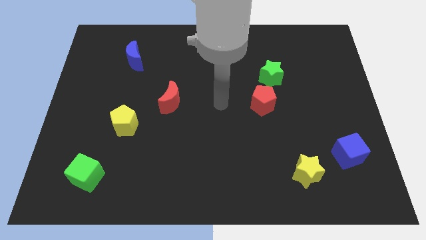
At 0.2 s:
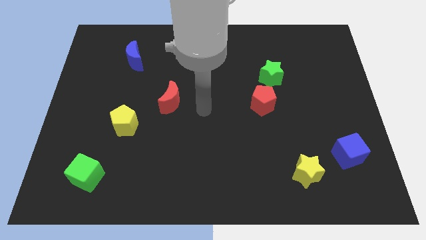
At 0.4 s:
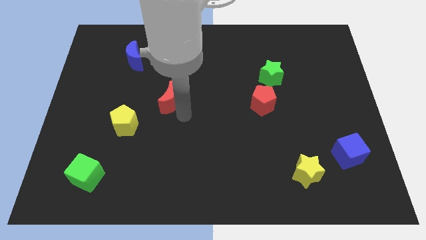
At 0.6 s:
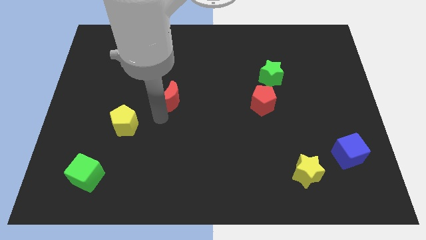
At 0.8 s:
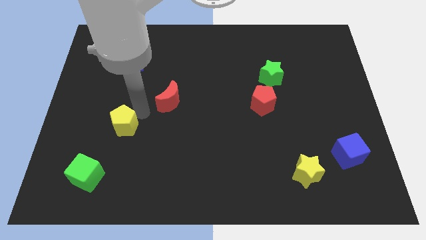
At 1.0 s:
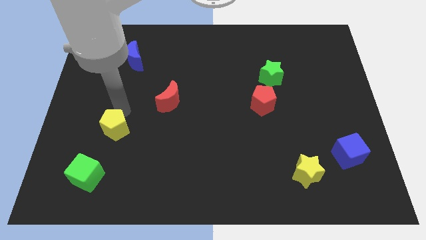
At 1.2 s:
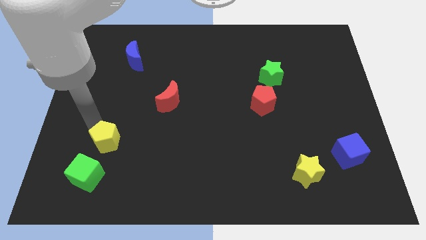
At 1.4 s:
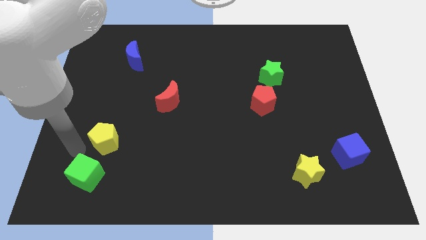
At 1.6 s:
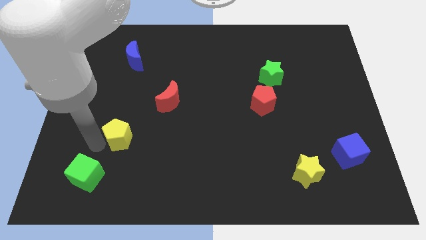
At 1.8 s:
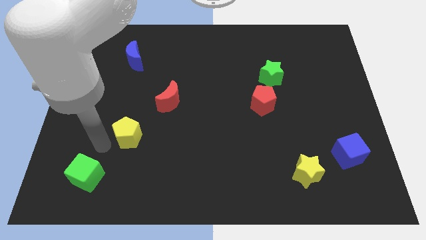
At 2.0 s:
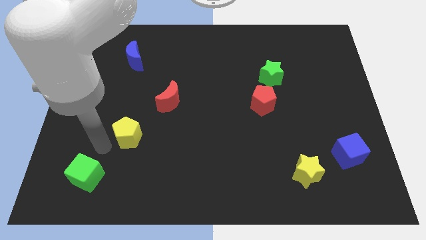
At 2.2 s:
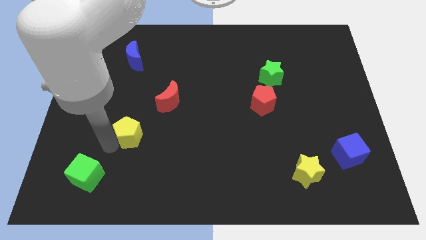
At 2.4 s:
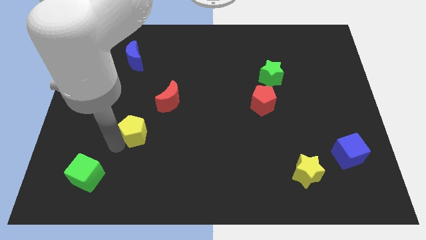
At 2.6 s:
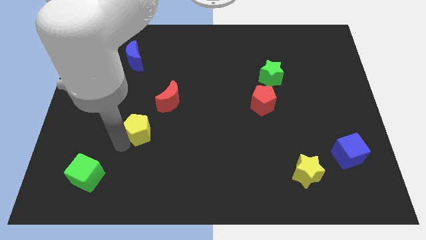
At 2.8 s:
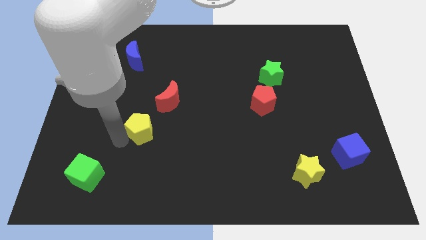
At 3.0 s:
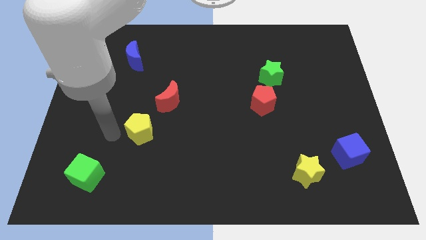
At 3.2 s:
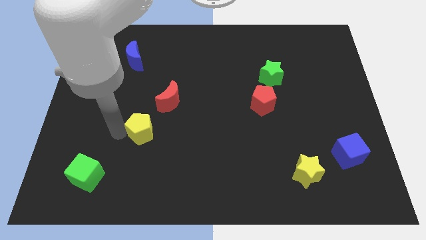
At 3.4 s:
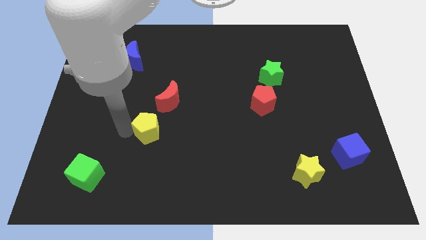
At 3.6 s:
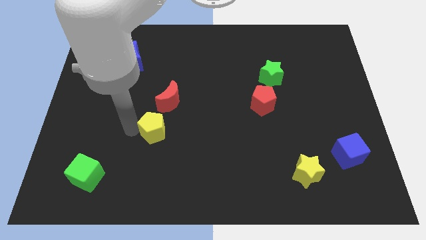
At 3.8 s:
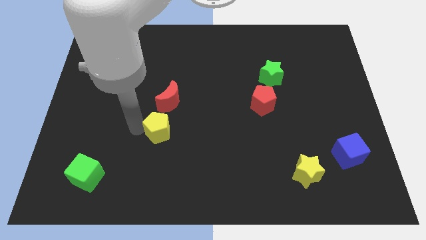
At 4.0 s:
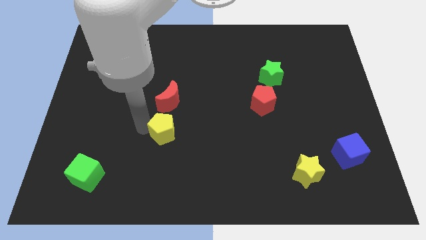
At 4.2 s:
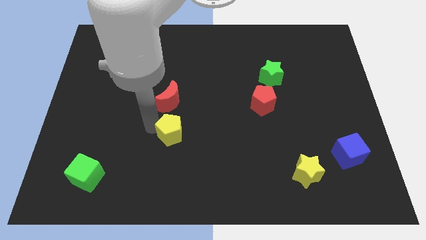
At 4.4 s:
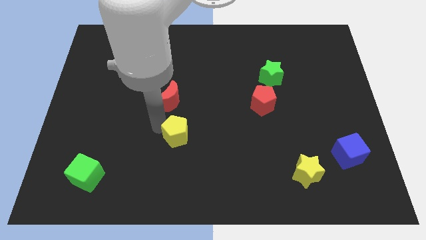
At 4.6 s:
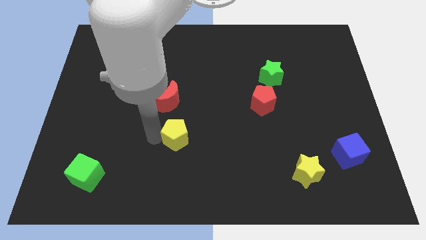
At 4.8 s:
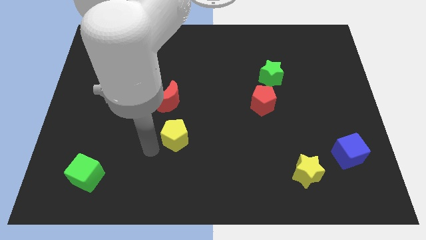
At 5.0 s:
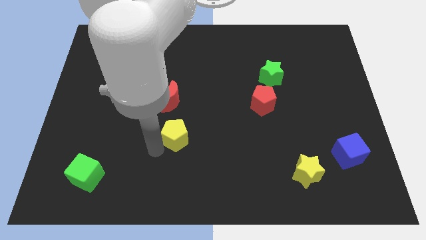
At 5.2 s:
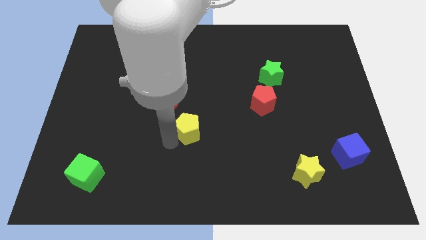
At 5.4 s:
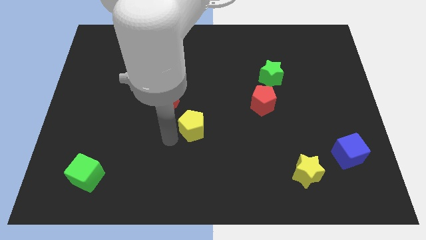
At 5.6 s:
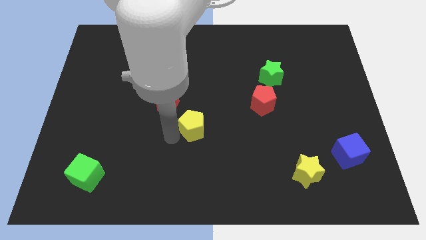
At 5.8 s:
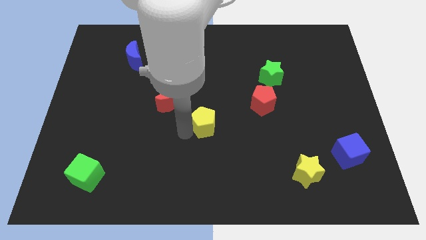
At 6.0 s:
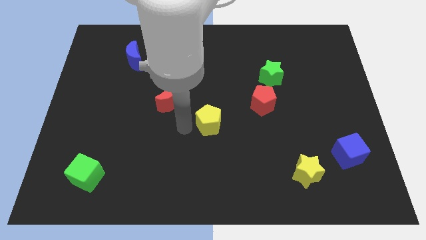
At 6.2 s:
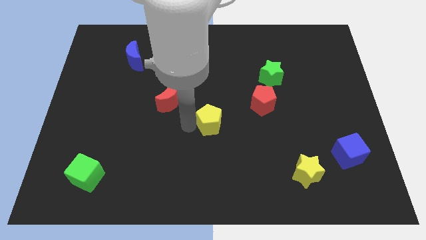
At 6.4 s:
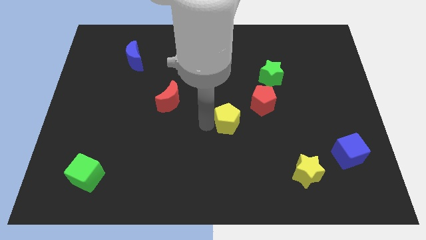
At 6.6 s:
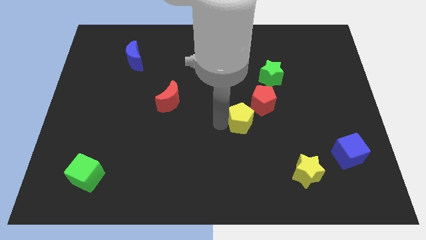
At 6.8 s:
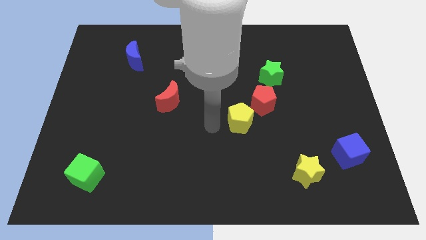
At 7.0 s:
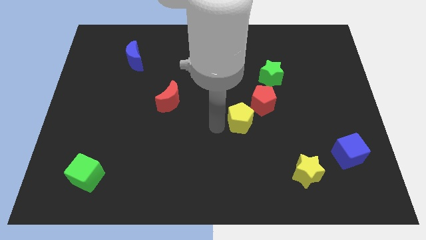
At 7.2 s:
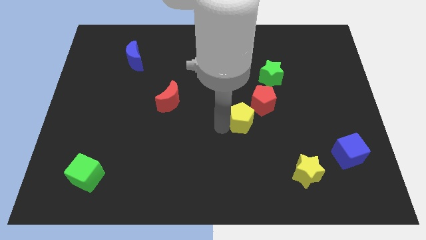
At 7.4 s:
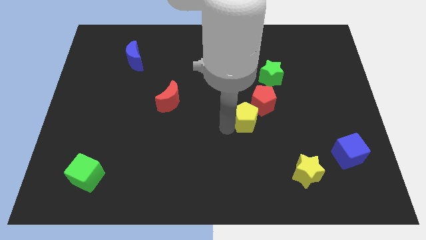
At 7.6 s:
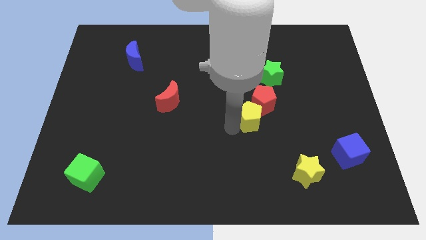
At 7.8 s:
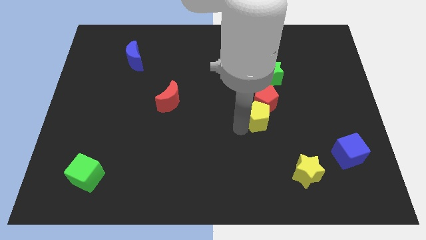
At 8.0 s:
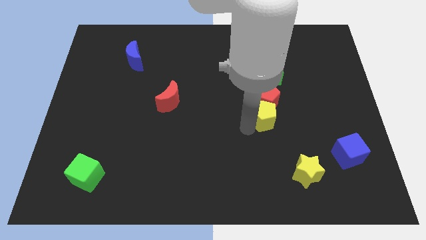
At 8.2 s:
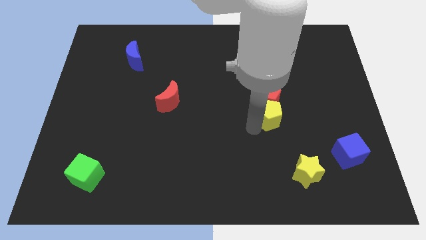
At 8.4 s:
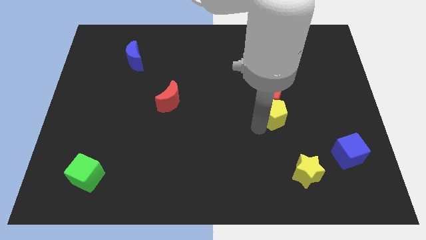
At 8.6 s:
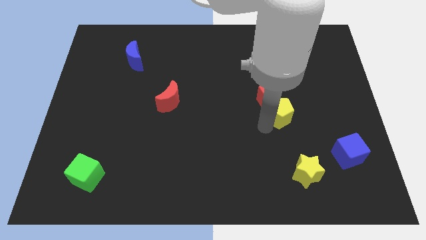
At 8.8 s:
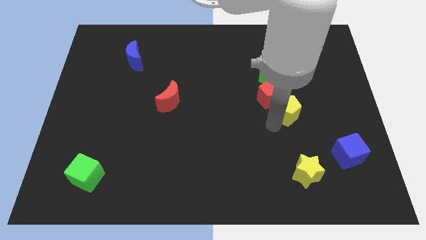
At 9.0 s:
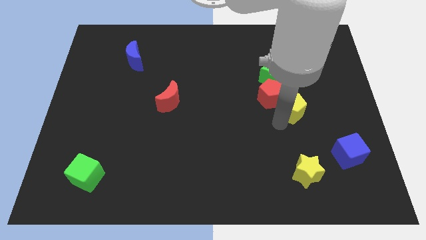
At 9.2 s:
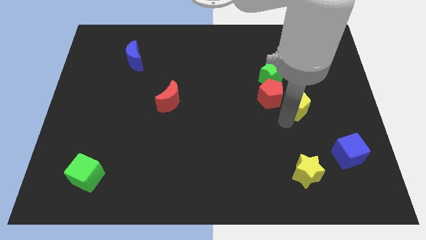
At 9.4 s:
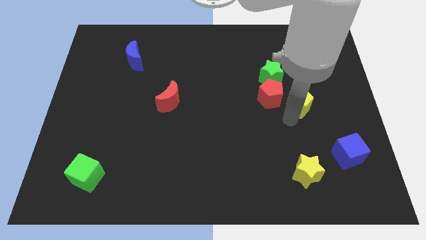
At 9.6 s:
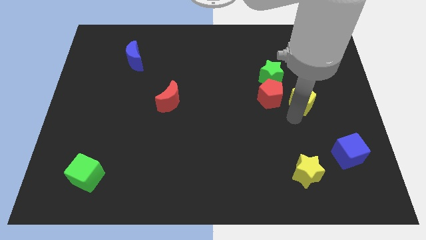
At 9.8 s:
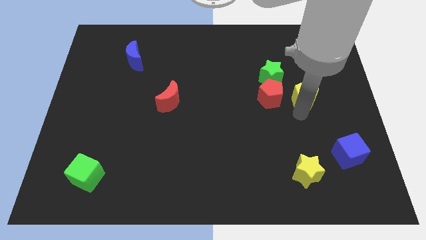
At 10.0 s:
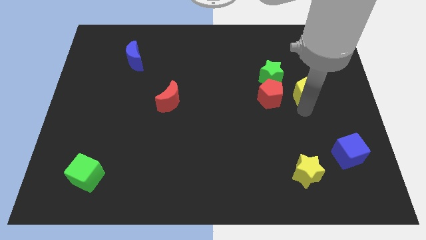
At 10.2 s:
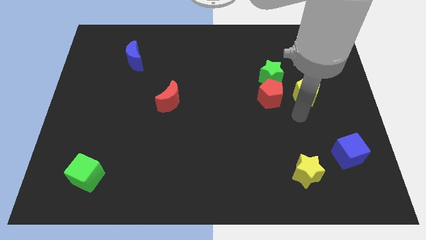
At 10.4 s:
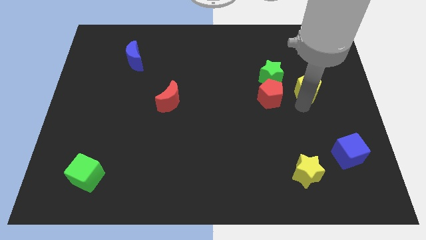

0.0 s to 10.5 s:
push the yellow pentagon right of the green star

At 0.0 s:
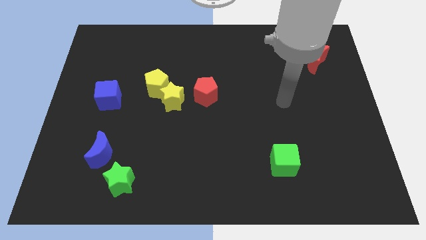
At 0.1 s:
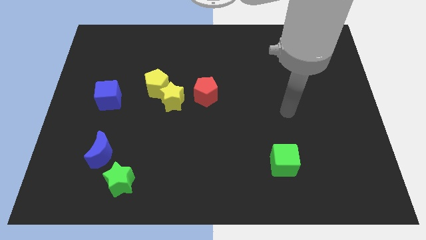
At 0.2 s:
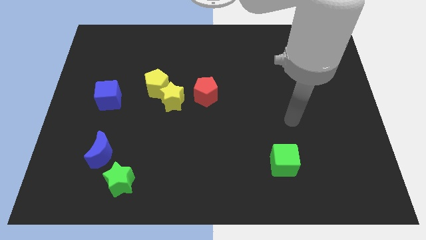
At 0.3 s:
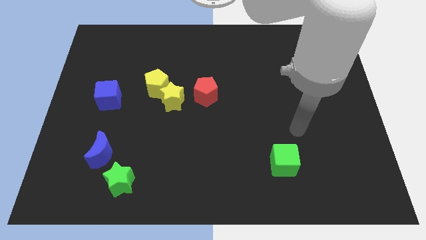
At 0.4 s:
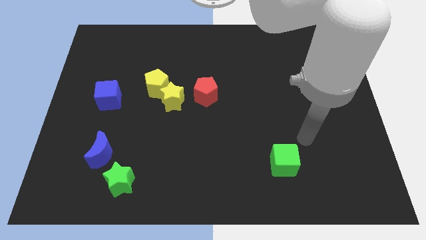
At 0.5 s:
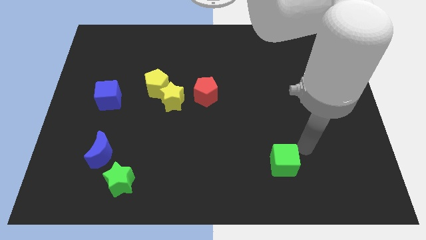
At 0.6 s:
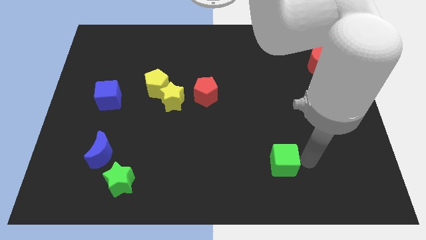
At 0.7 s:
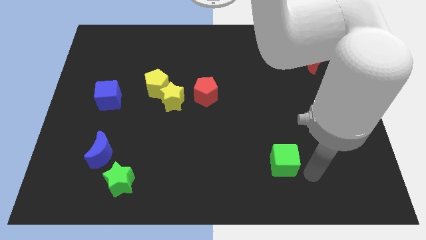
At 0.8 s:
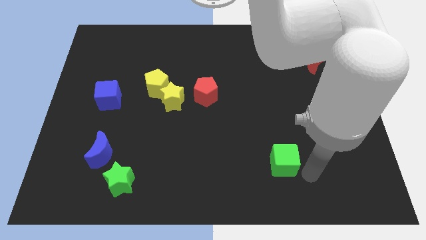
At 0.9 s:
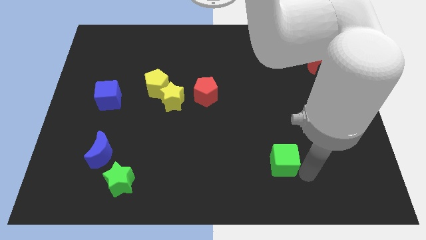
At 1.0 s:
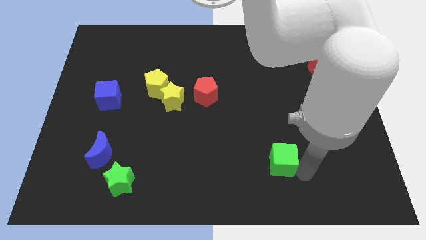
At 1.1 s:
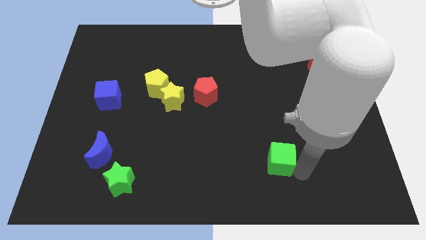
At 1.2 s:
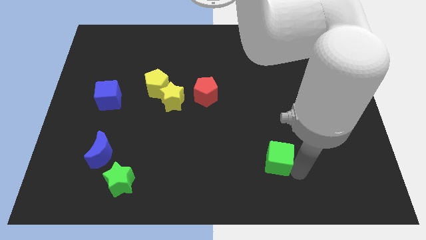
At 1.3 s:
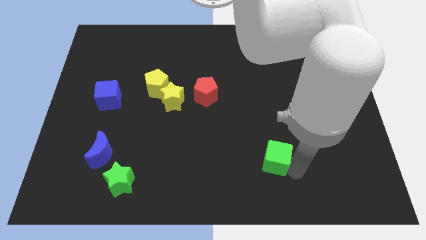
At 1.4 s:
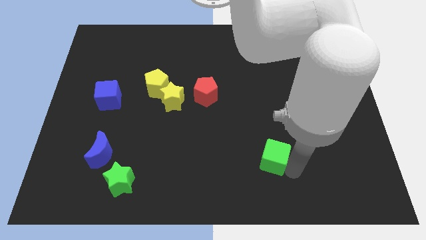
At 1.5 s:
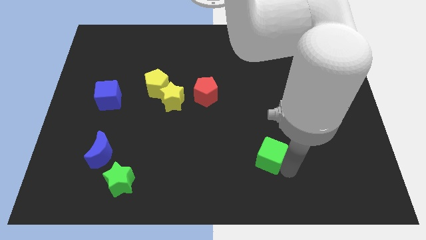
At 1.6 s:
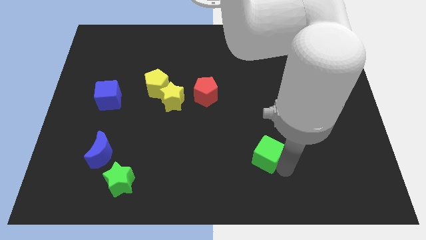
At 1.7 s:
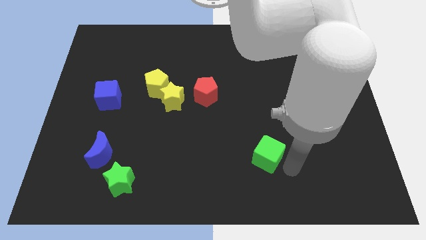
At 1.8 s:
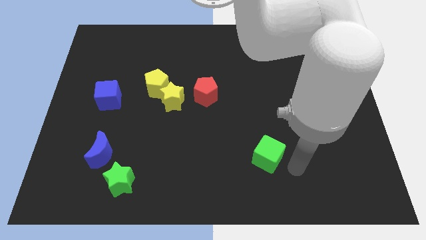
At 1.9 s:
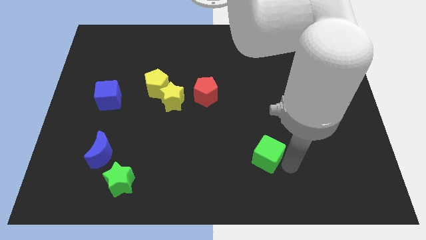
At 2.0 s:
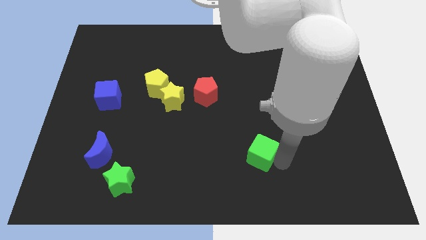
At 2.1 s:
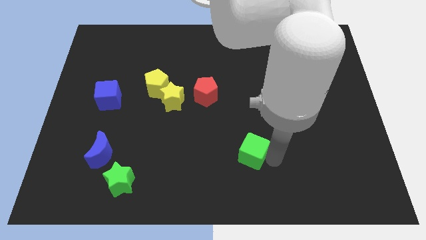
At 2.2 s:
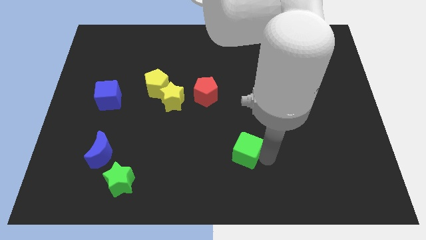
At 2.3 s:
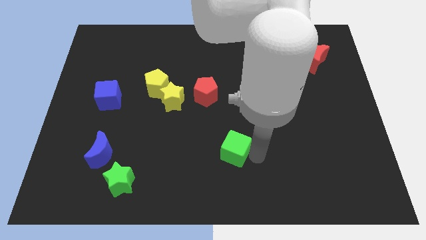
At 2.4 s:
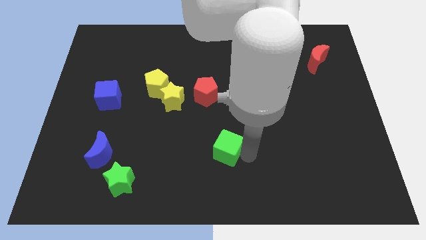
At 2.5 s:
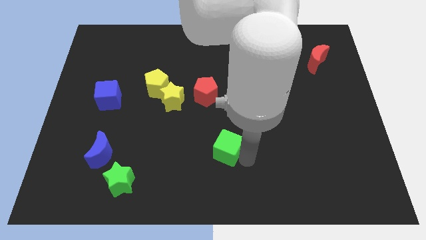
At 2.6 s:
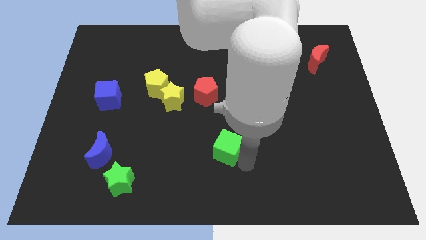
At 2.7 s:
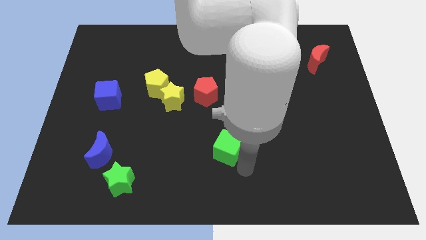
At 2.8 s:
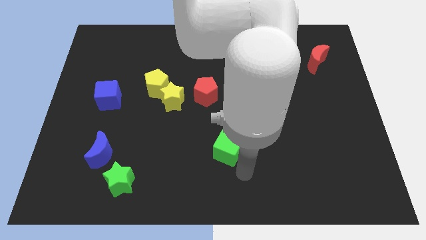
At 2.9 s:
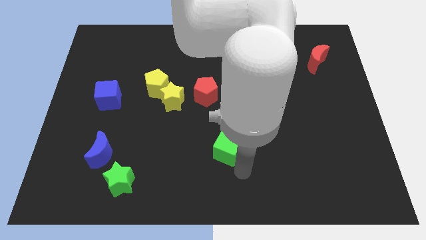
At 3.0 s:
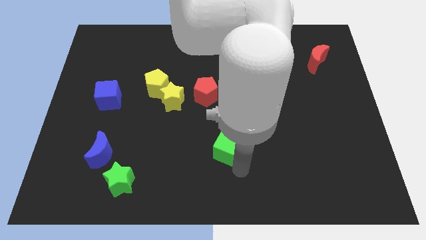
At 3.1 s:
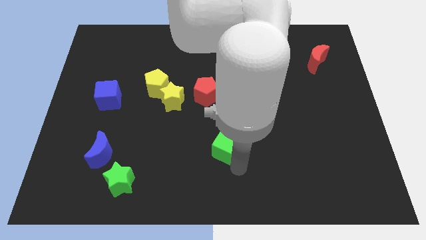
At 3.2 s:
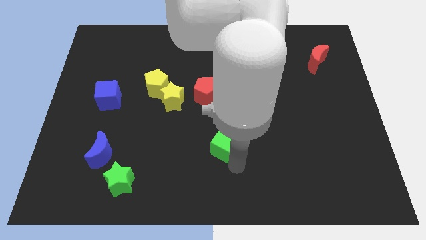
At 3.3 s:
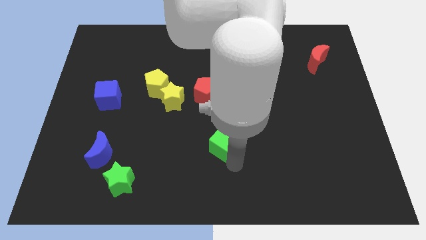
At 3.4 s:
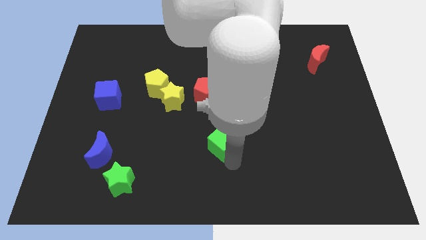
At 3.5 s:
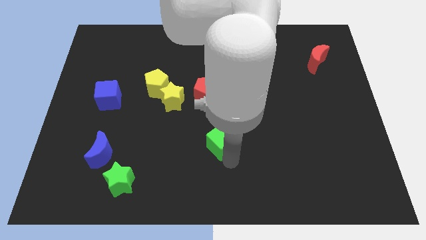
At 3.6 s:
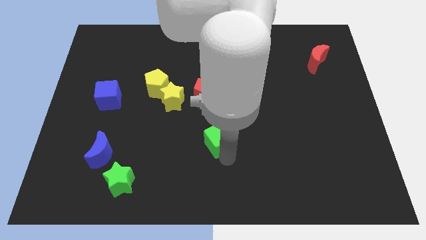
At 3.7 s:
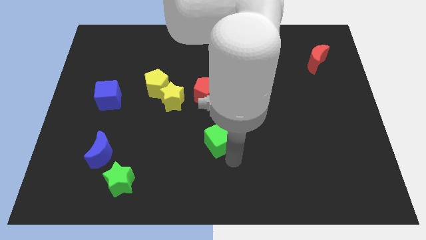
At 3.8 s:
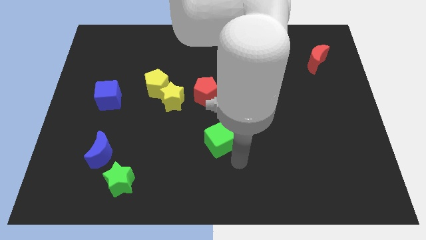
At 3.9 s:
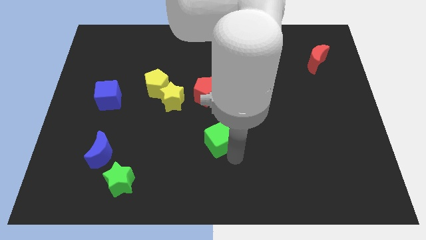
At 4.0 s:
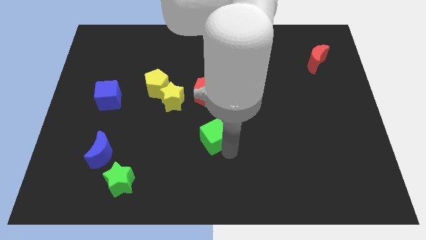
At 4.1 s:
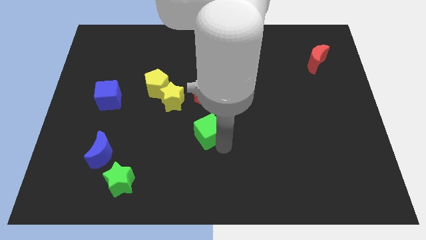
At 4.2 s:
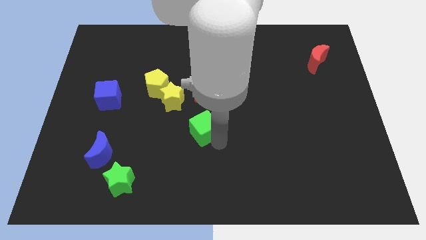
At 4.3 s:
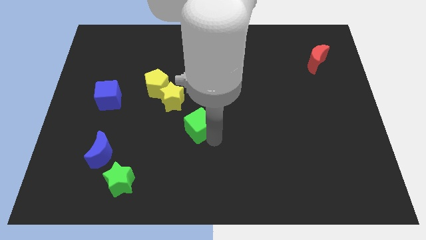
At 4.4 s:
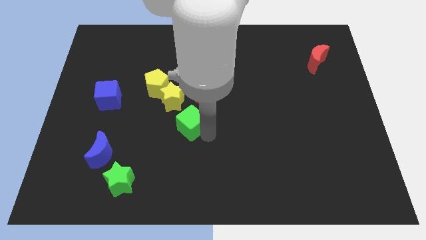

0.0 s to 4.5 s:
slide the green cube to the bottom left of the red pentagon
